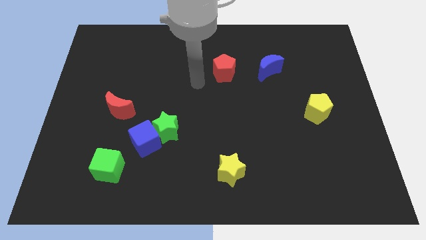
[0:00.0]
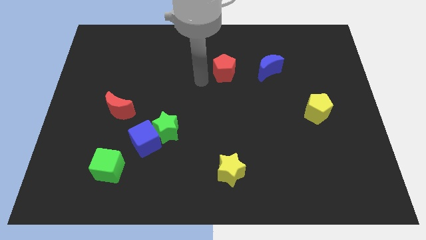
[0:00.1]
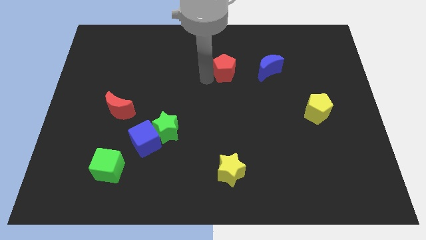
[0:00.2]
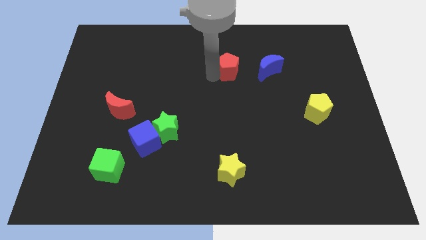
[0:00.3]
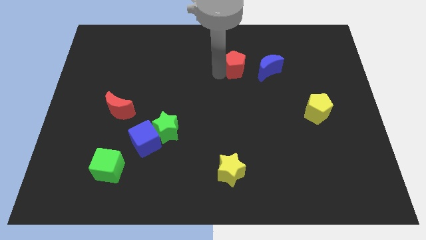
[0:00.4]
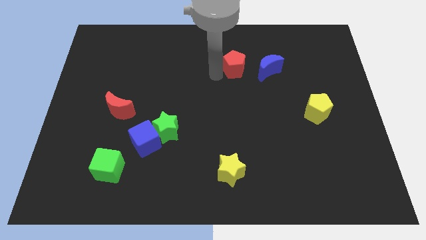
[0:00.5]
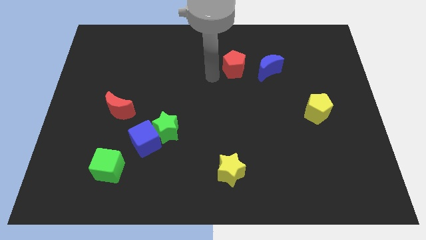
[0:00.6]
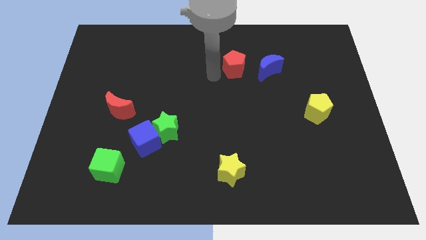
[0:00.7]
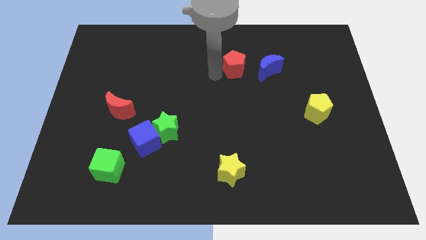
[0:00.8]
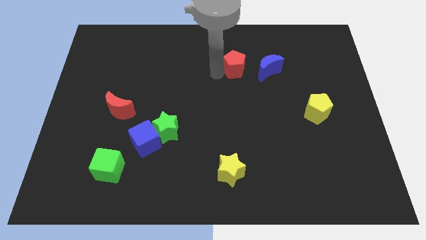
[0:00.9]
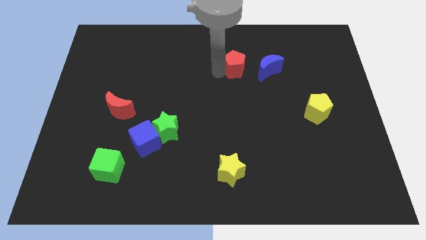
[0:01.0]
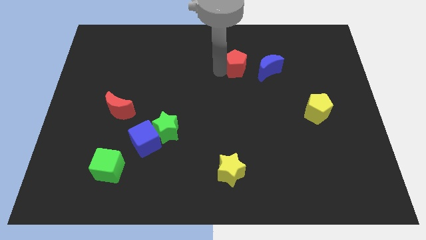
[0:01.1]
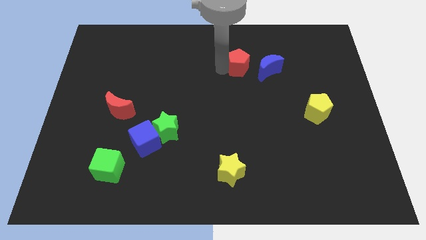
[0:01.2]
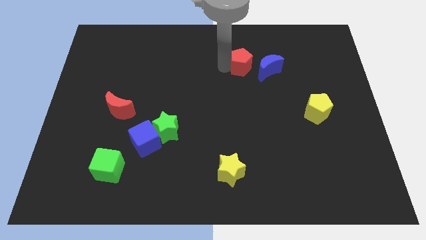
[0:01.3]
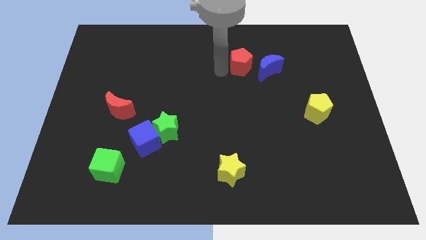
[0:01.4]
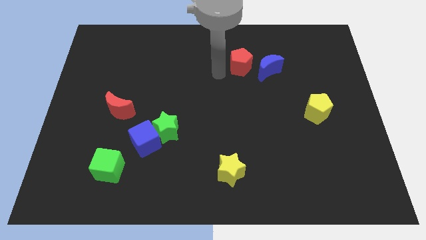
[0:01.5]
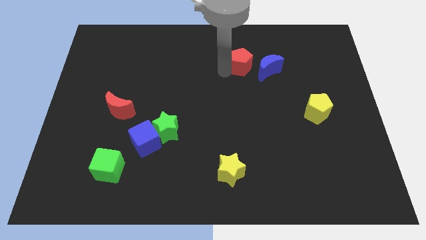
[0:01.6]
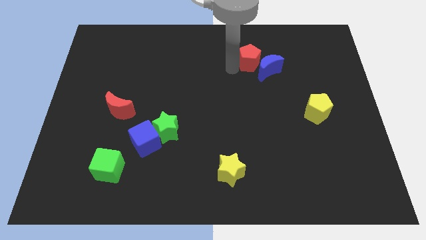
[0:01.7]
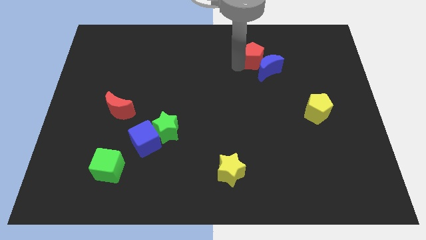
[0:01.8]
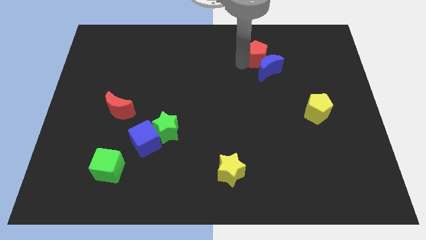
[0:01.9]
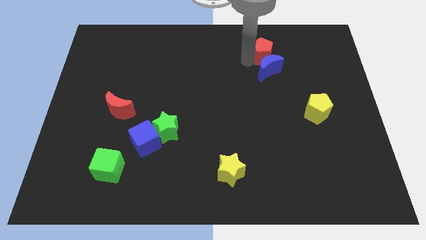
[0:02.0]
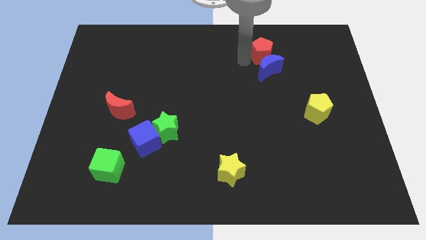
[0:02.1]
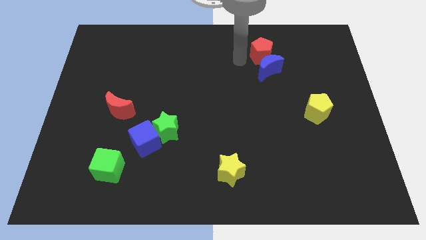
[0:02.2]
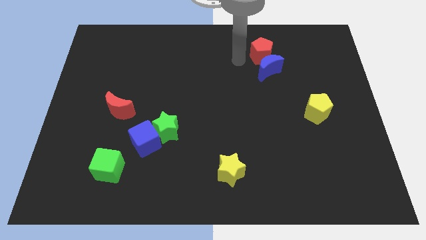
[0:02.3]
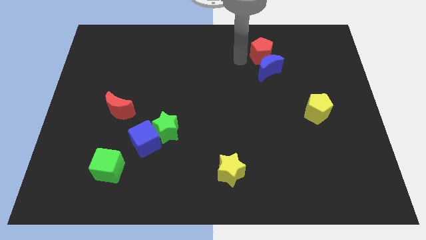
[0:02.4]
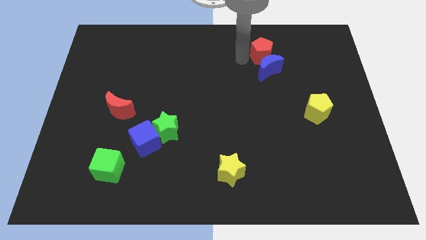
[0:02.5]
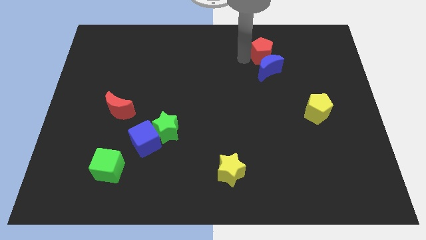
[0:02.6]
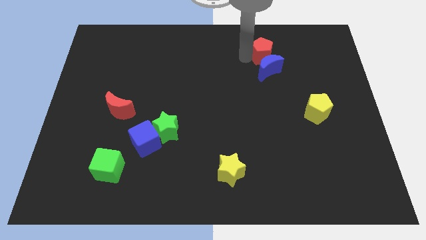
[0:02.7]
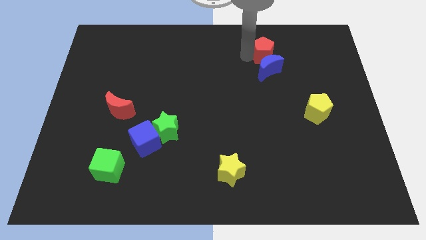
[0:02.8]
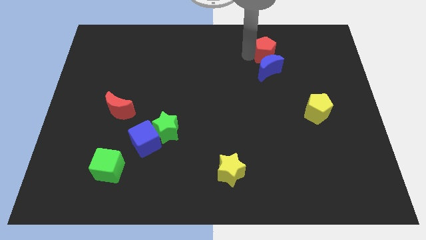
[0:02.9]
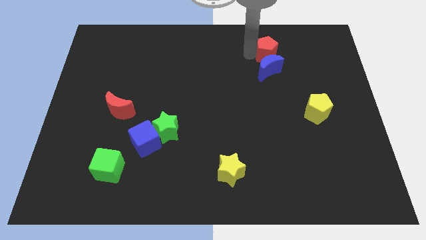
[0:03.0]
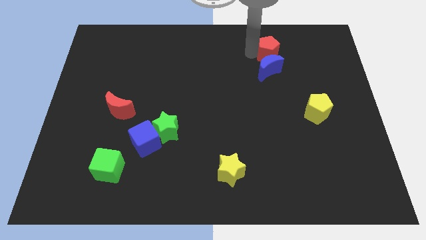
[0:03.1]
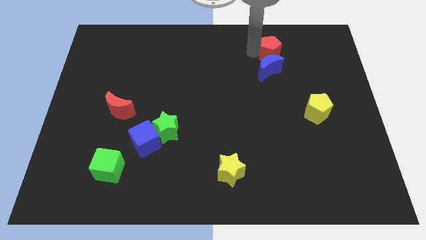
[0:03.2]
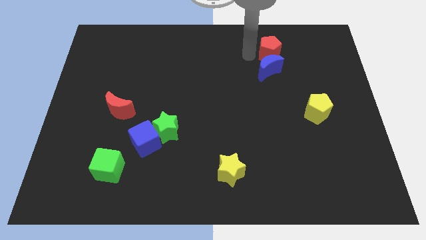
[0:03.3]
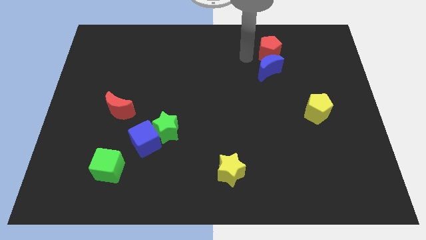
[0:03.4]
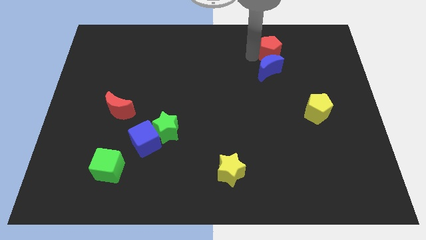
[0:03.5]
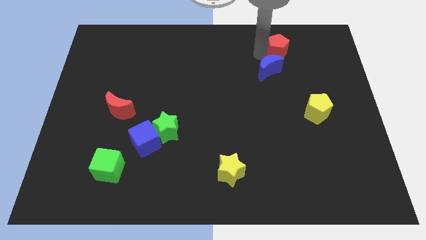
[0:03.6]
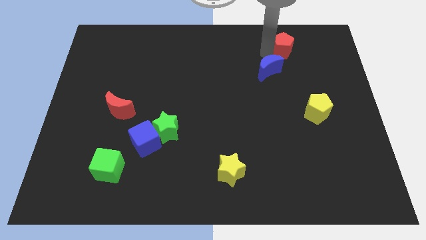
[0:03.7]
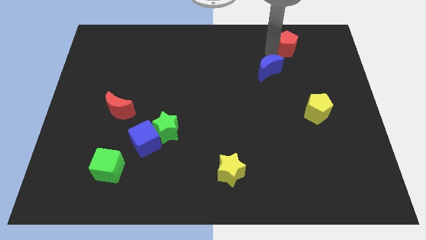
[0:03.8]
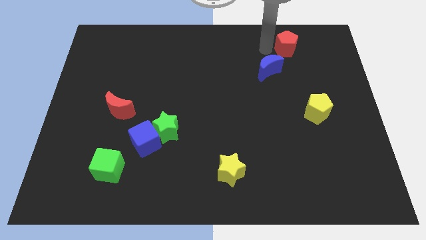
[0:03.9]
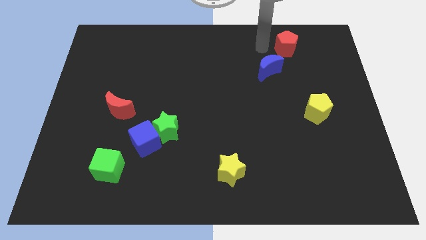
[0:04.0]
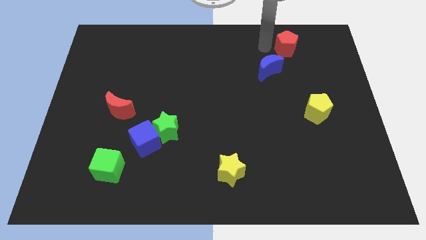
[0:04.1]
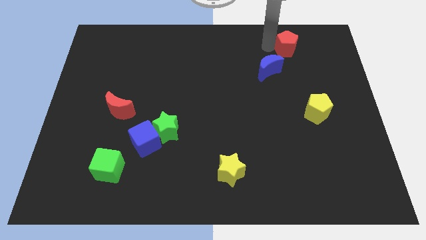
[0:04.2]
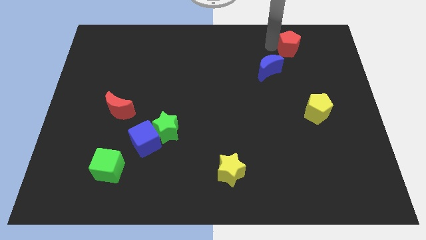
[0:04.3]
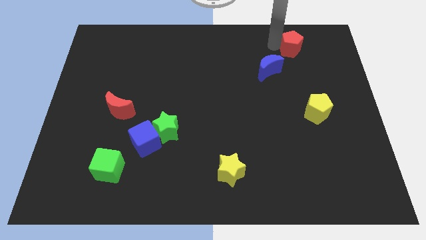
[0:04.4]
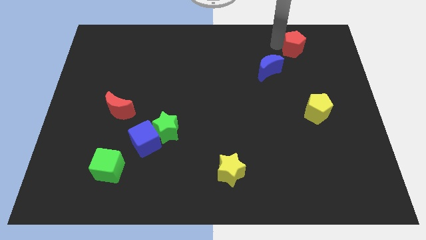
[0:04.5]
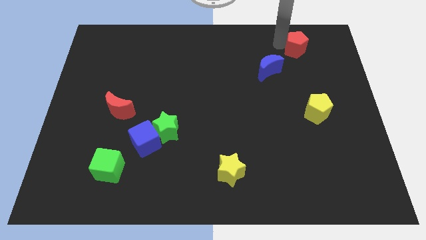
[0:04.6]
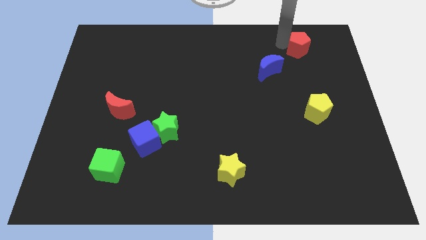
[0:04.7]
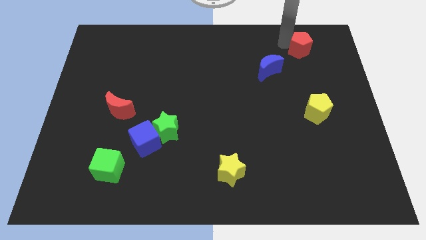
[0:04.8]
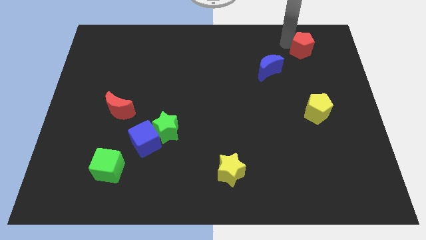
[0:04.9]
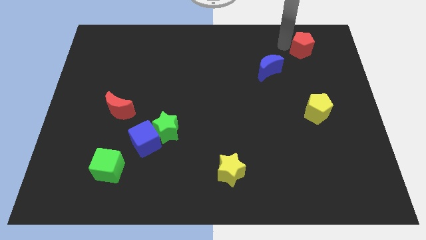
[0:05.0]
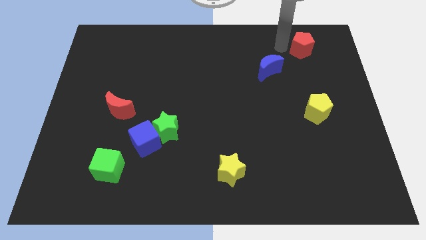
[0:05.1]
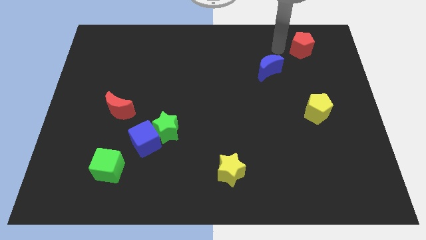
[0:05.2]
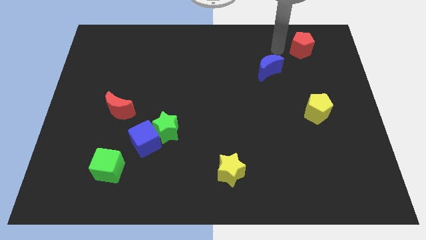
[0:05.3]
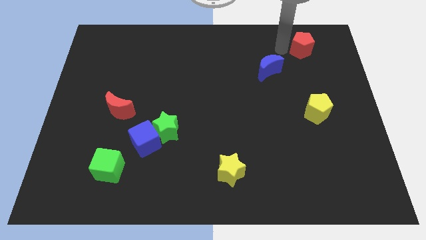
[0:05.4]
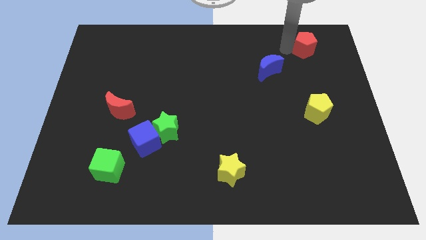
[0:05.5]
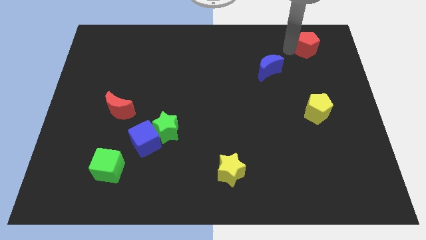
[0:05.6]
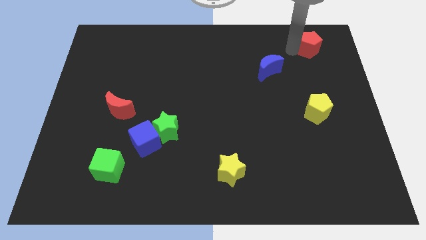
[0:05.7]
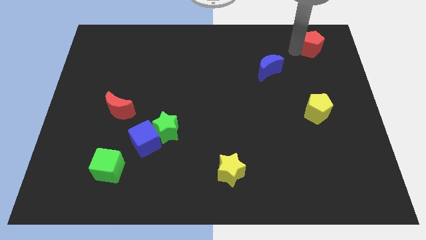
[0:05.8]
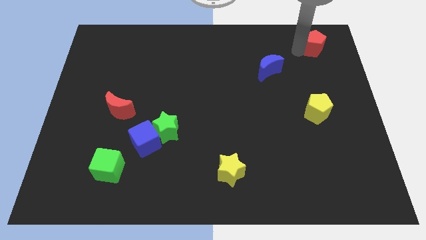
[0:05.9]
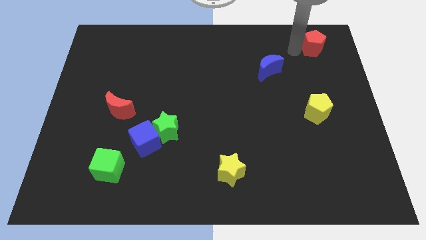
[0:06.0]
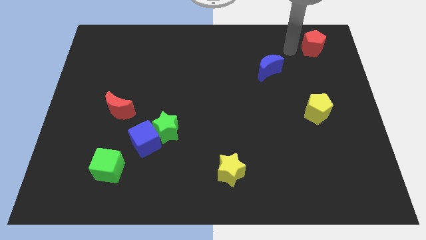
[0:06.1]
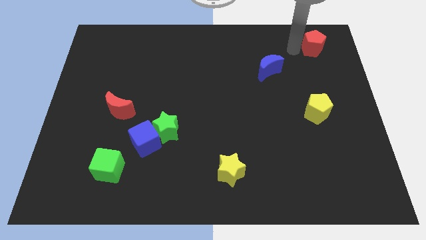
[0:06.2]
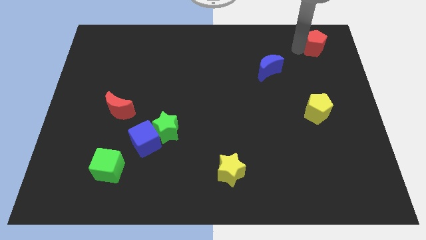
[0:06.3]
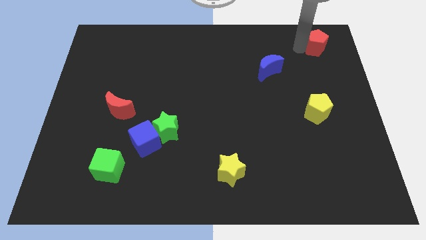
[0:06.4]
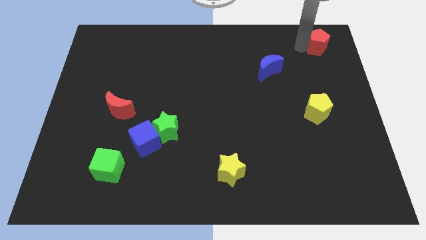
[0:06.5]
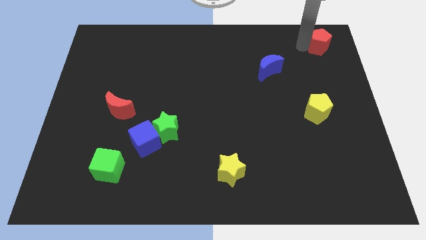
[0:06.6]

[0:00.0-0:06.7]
push the red pentagon to the top right corner

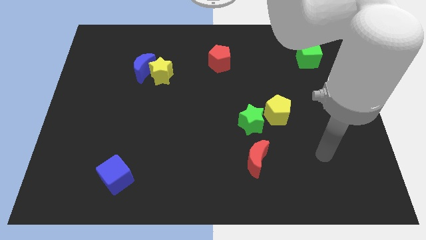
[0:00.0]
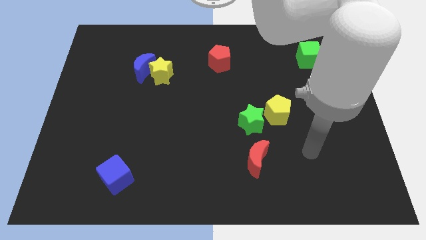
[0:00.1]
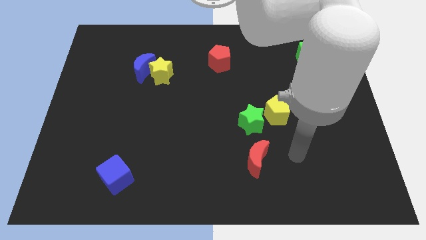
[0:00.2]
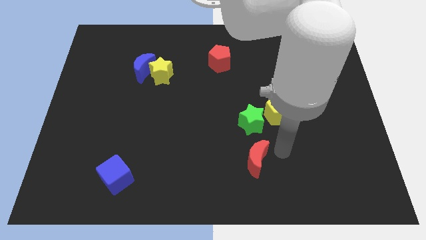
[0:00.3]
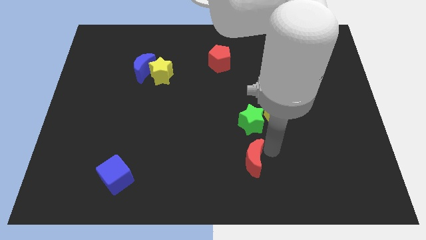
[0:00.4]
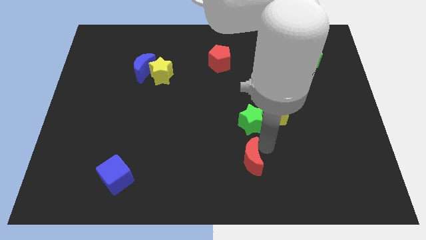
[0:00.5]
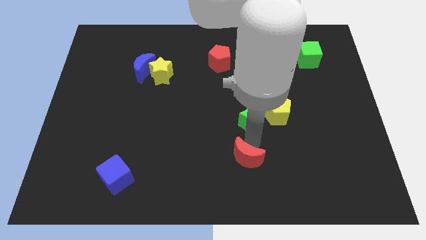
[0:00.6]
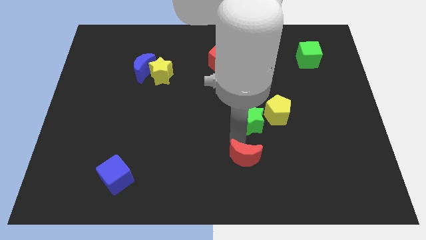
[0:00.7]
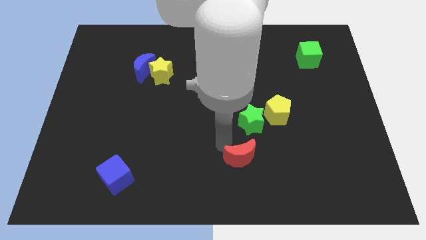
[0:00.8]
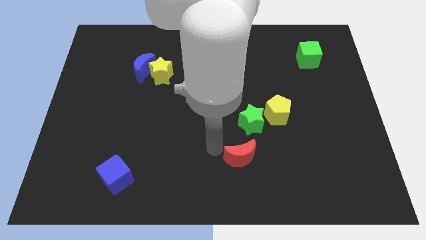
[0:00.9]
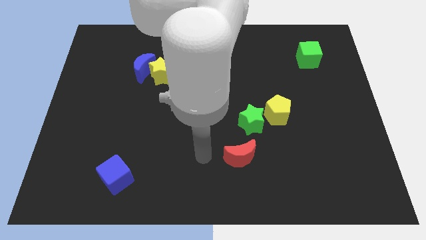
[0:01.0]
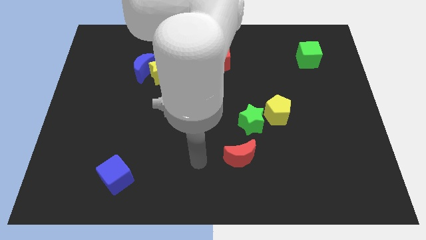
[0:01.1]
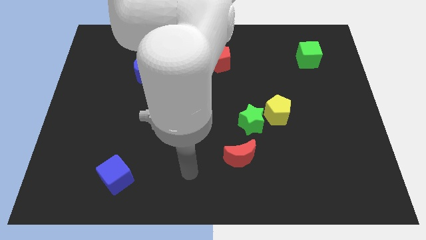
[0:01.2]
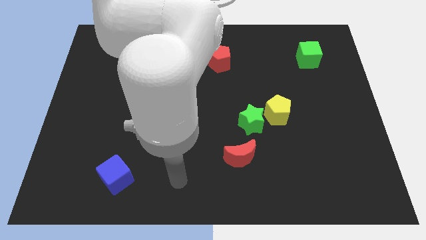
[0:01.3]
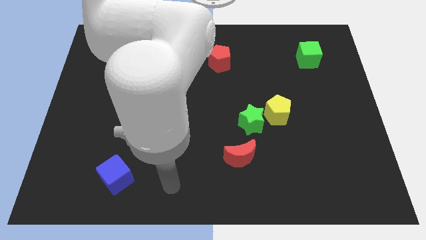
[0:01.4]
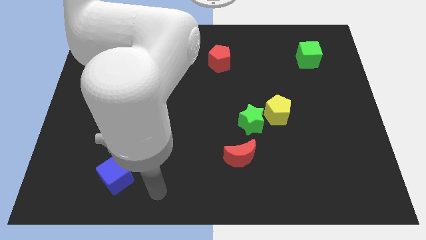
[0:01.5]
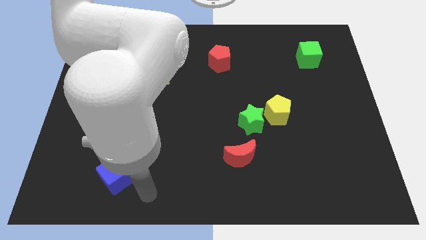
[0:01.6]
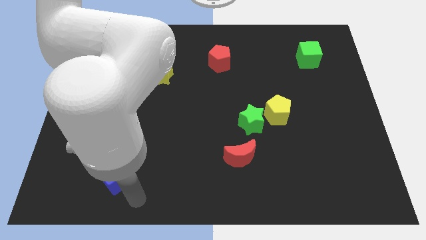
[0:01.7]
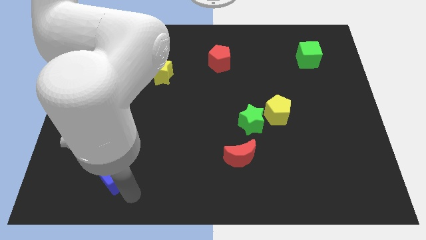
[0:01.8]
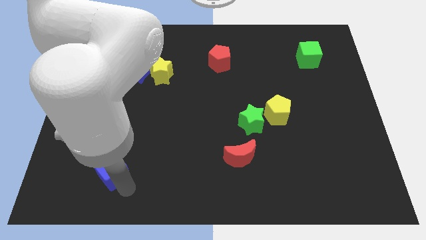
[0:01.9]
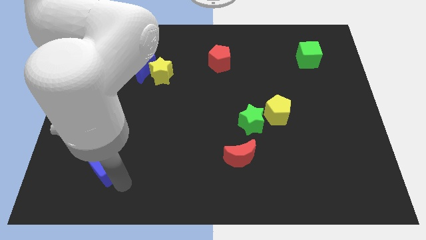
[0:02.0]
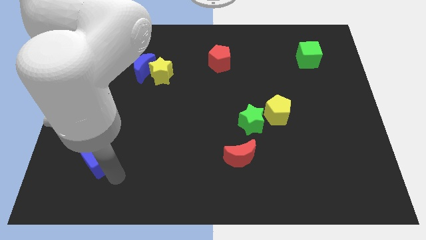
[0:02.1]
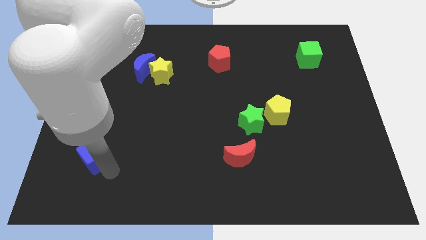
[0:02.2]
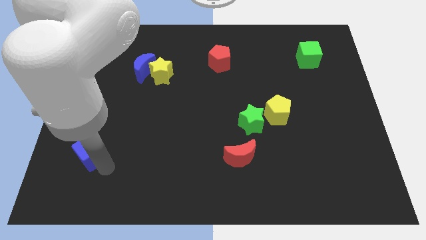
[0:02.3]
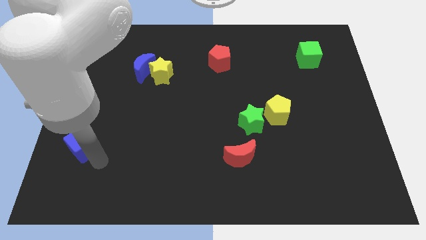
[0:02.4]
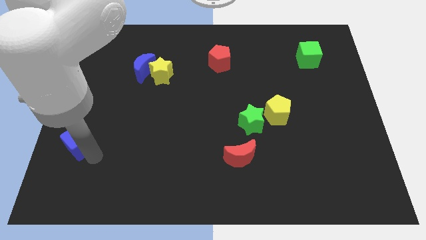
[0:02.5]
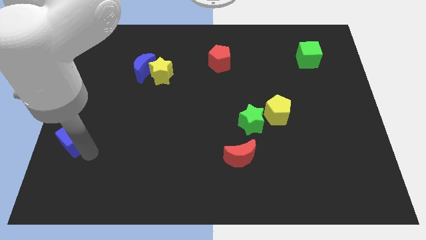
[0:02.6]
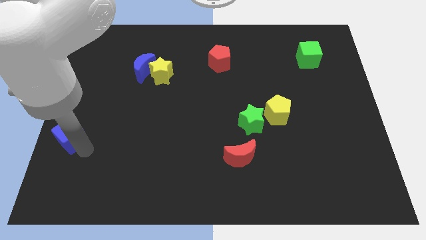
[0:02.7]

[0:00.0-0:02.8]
put the blue cube to the left side
